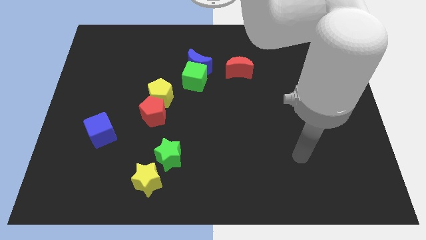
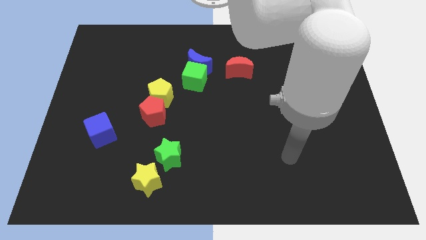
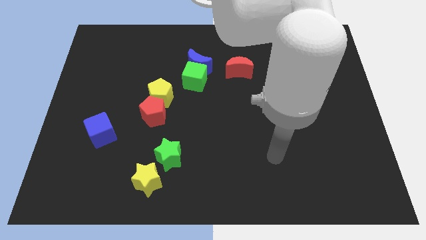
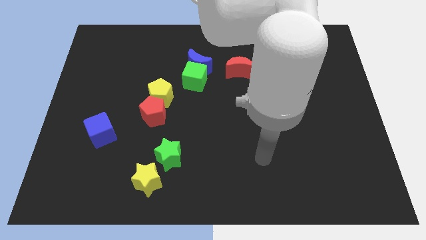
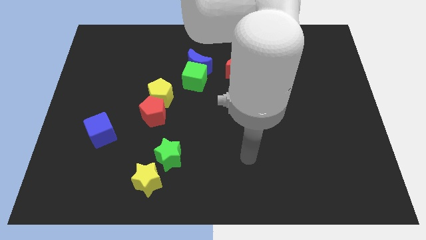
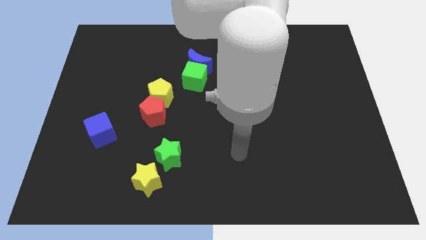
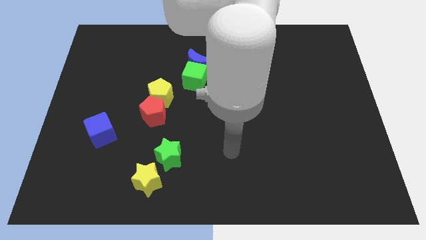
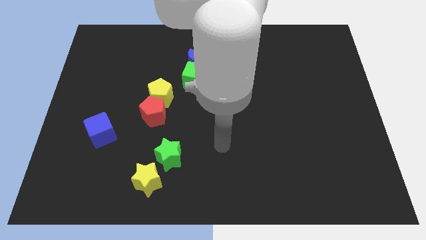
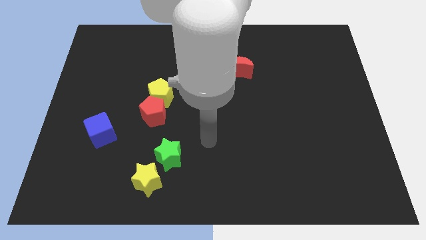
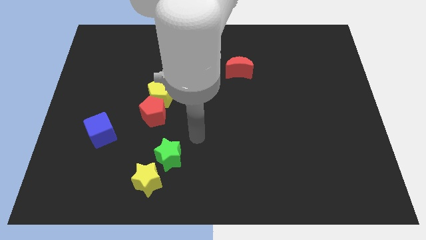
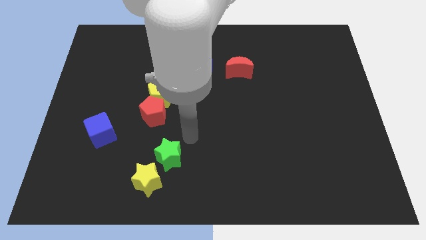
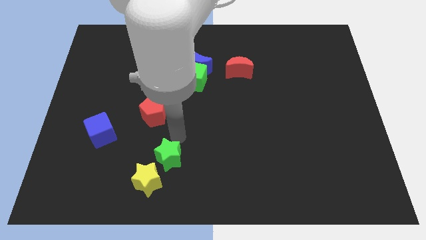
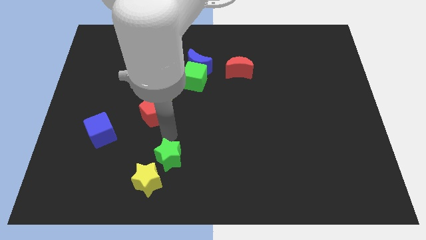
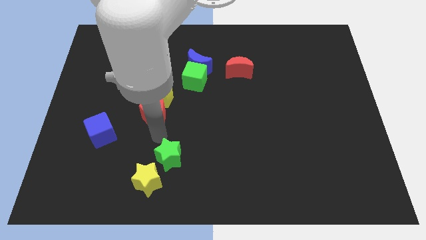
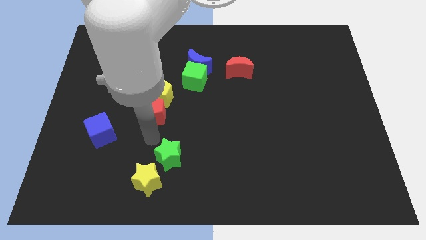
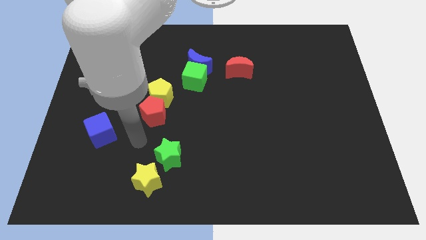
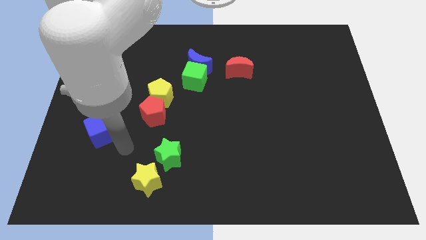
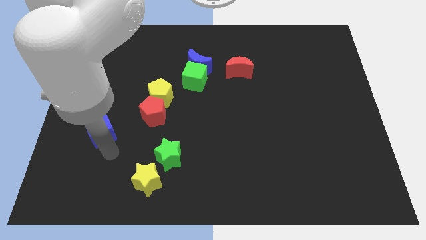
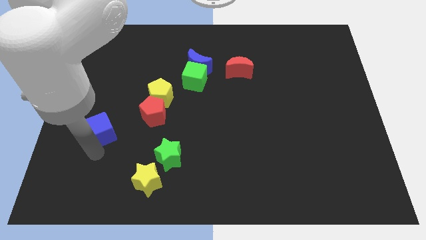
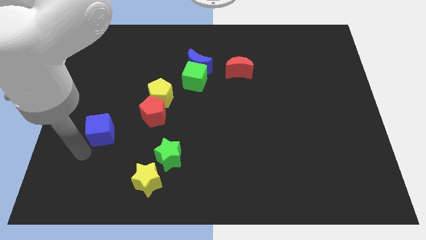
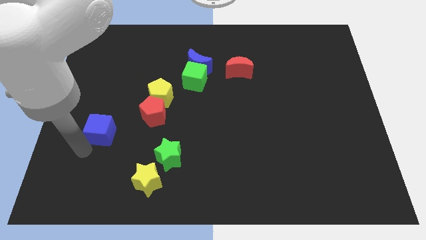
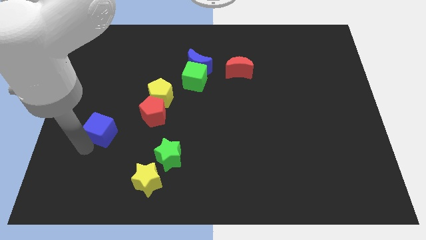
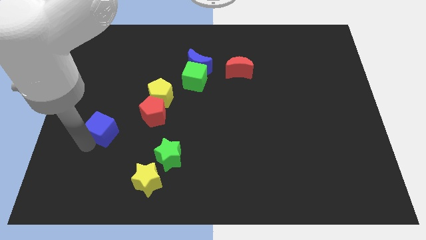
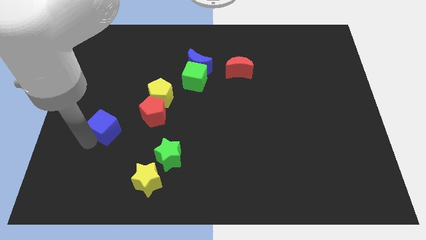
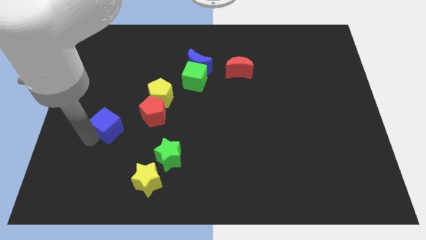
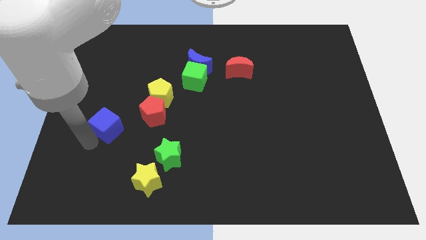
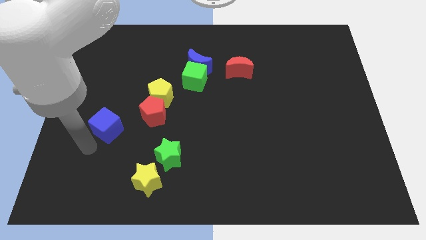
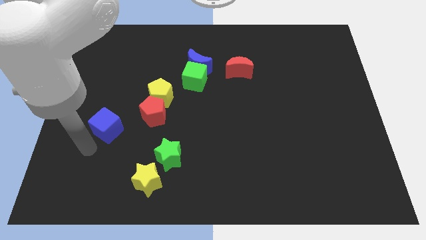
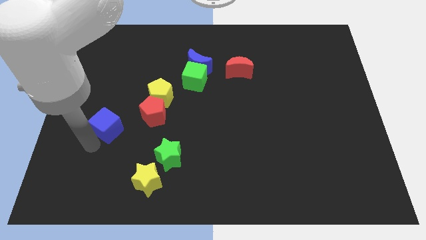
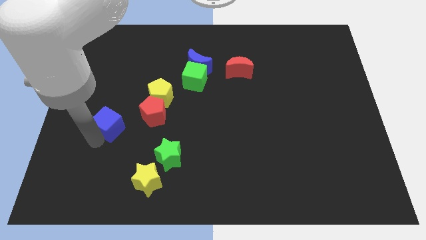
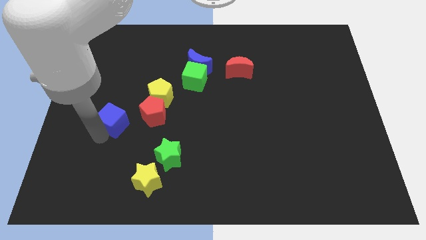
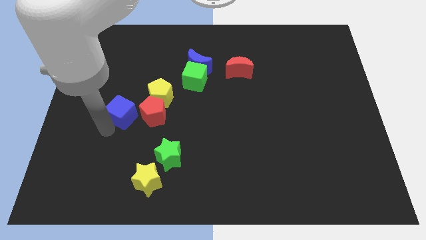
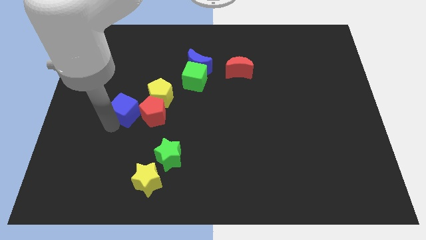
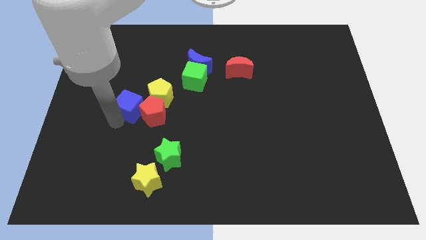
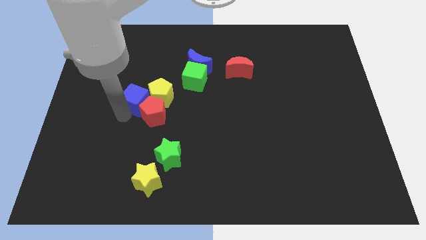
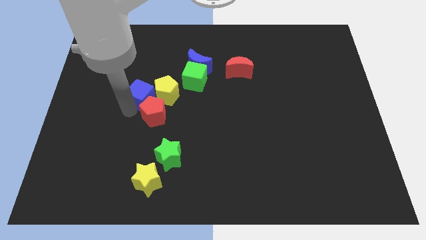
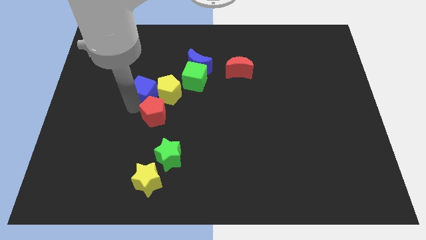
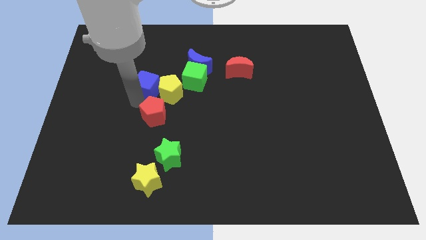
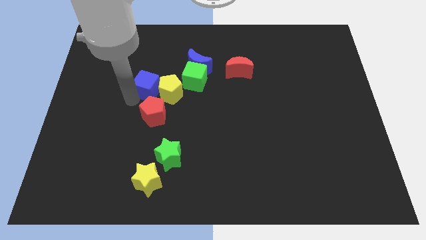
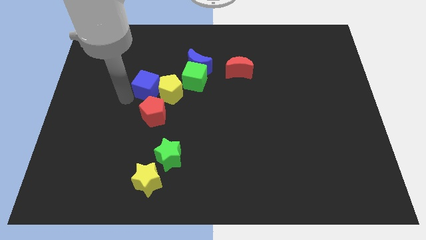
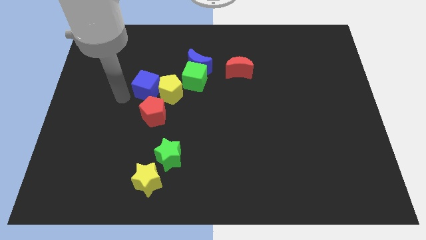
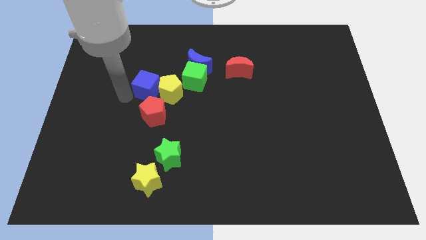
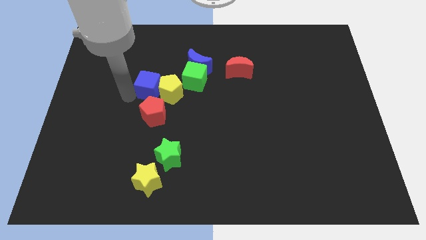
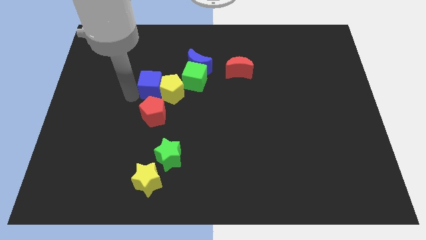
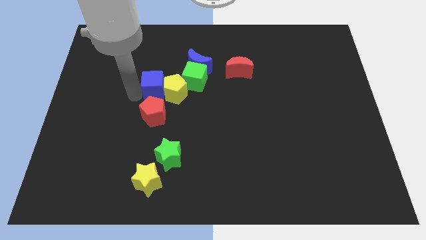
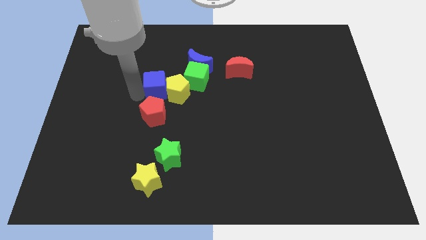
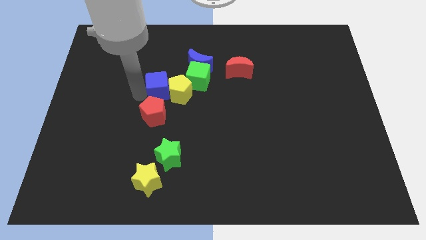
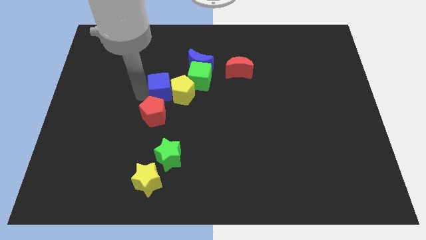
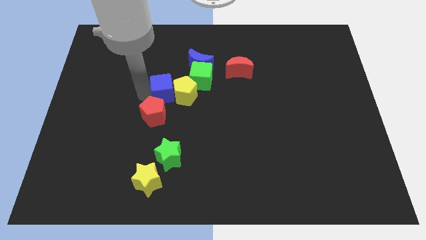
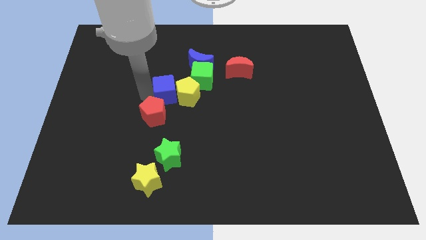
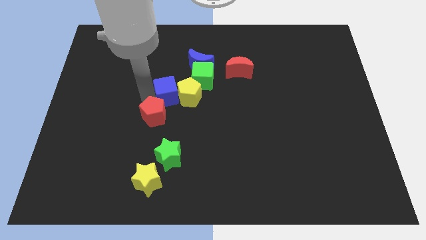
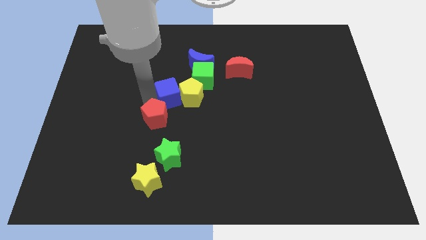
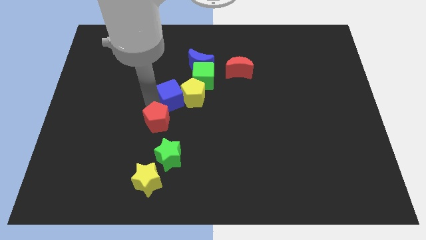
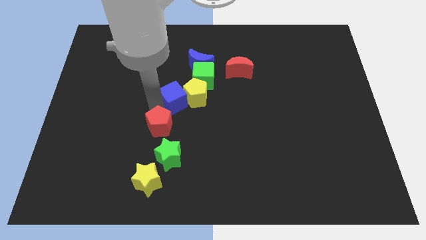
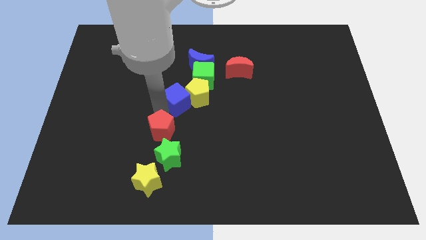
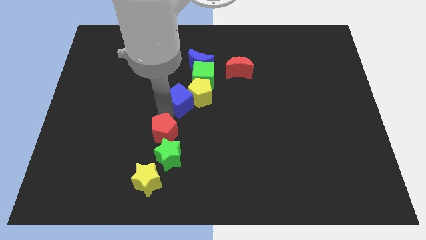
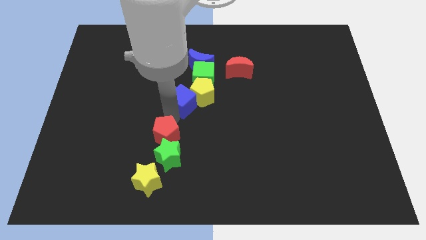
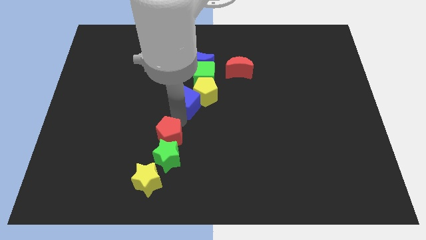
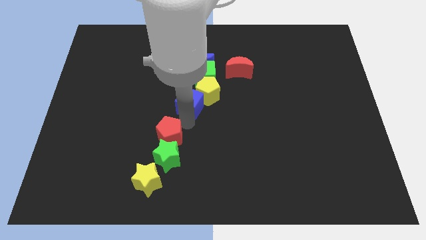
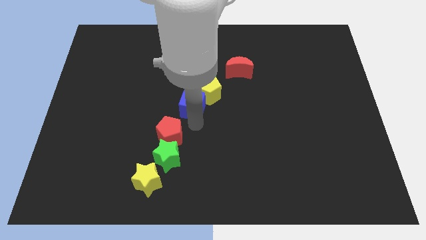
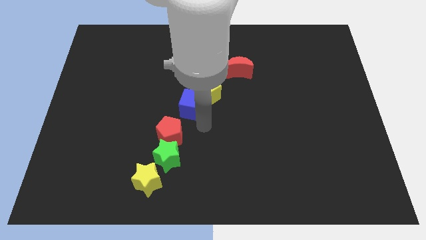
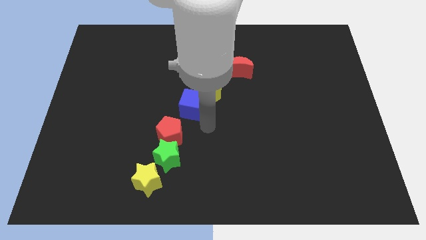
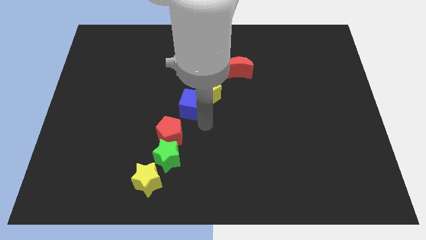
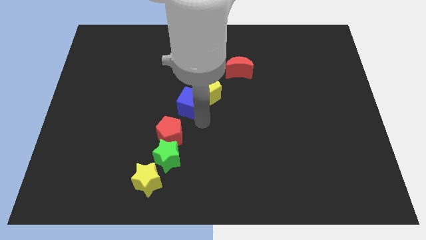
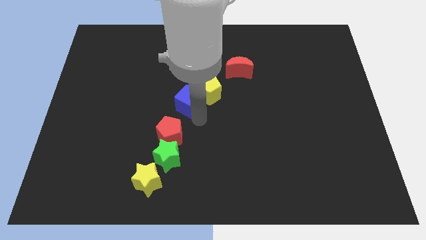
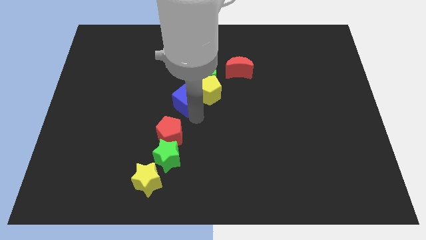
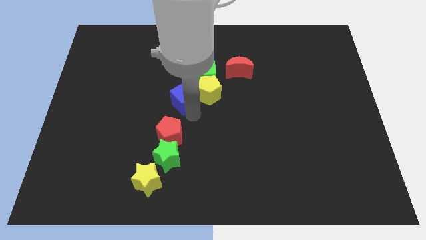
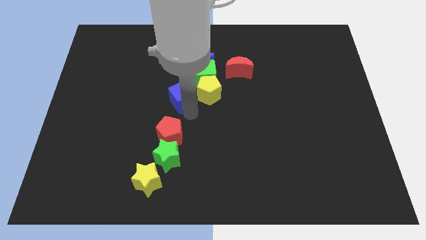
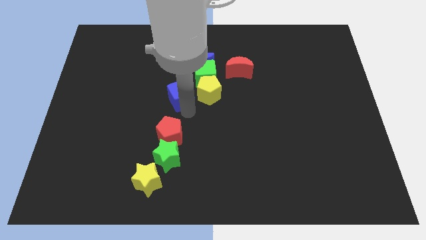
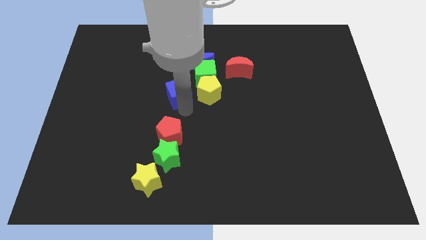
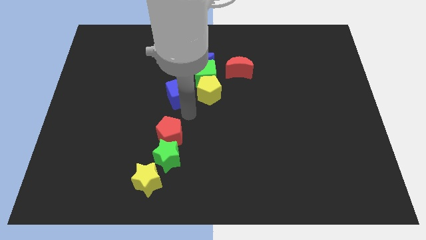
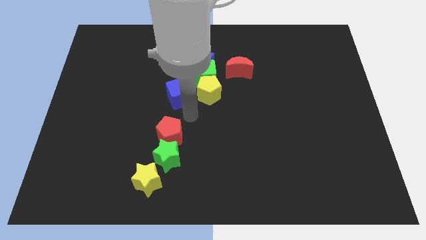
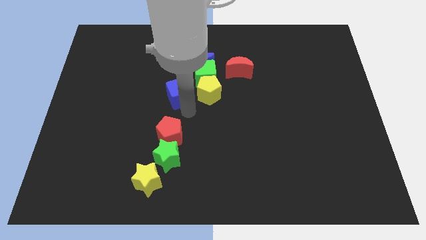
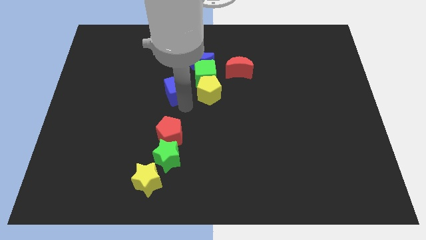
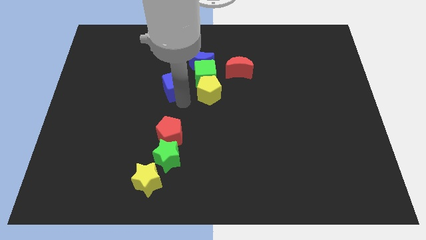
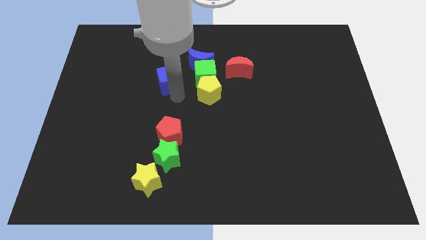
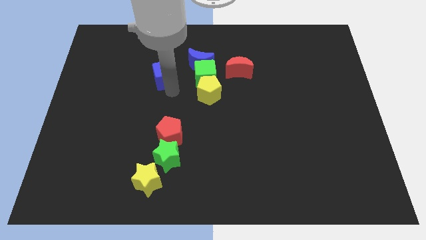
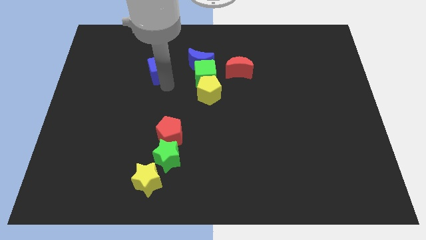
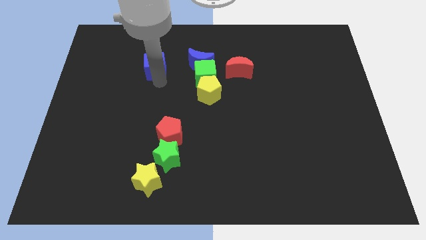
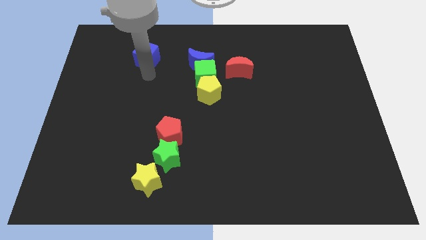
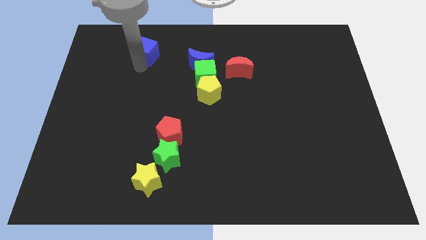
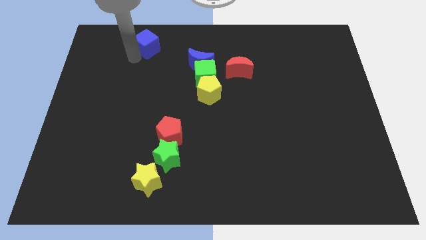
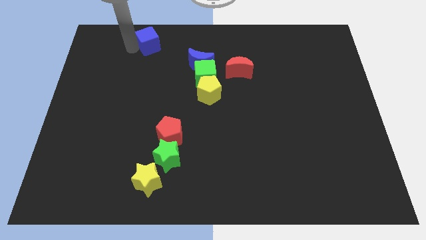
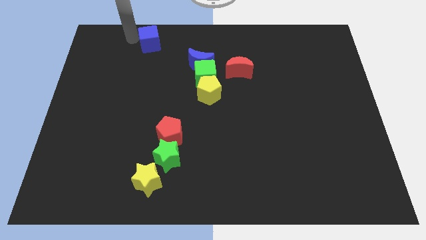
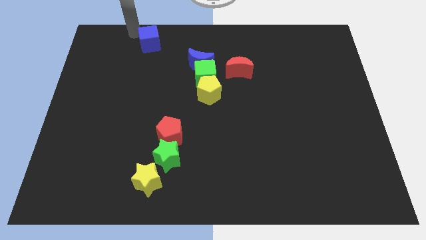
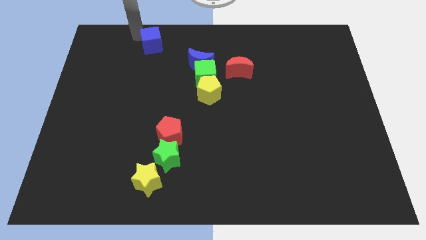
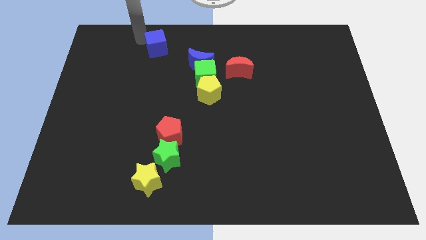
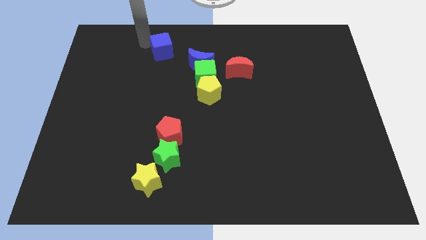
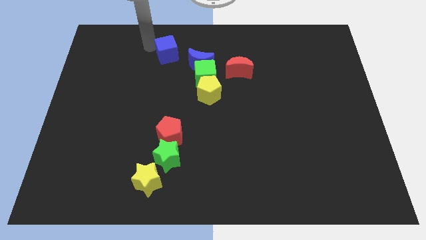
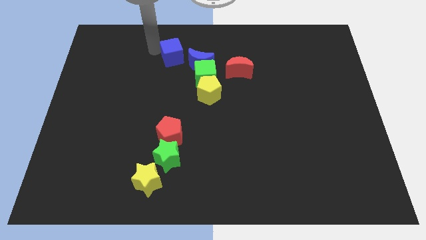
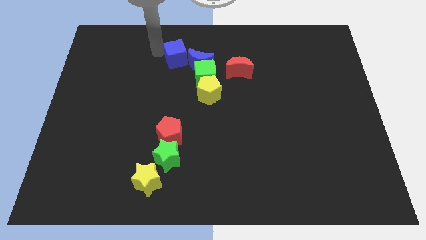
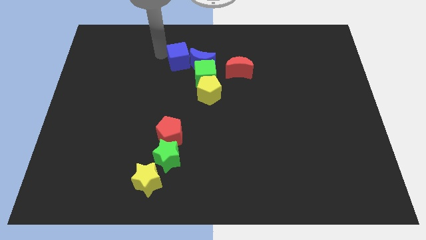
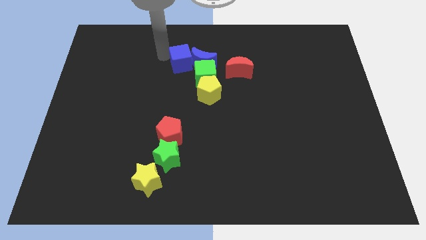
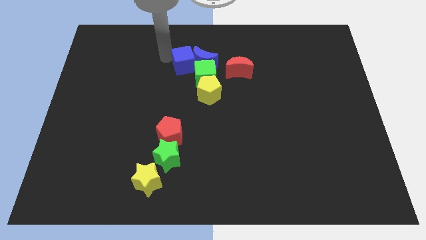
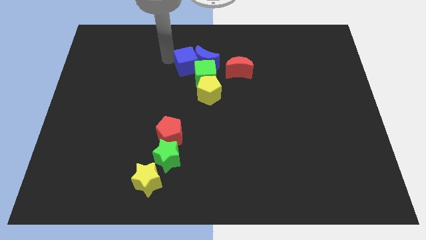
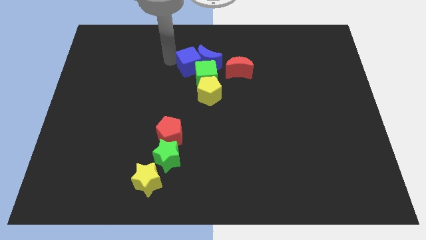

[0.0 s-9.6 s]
push the blue cube next to the green cube
